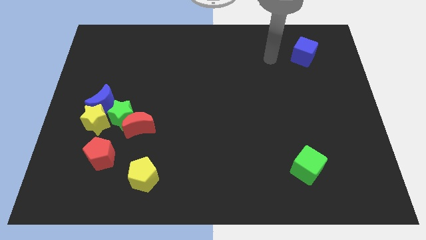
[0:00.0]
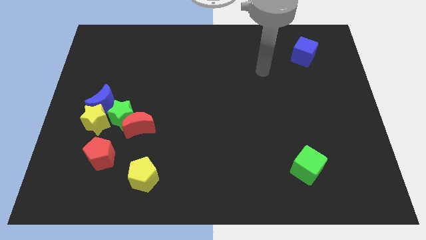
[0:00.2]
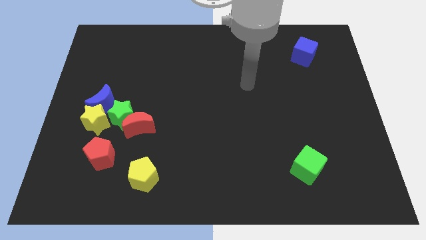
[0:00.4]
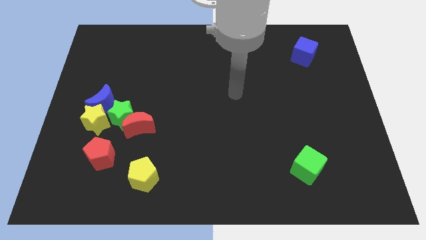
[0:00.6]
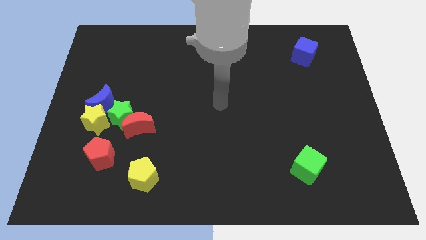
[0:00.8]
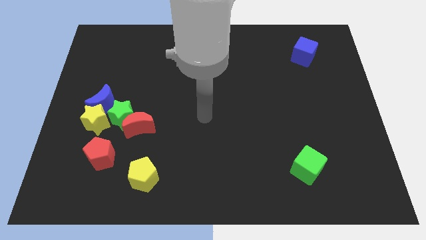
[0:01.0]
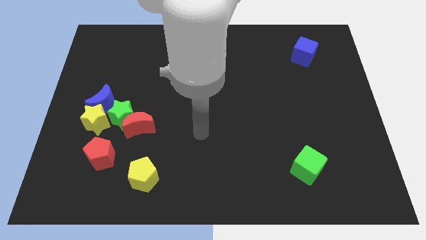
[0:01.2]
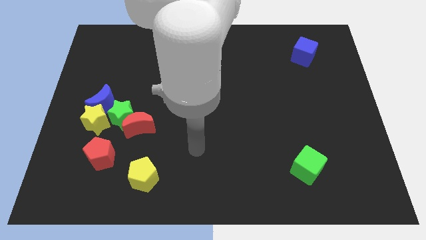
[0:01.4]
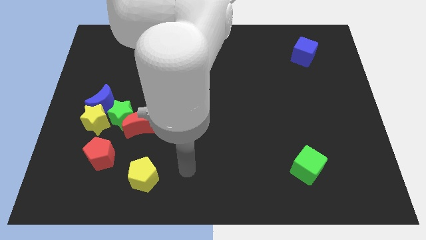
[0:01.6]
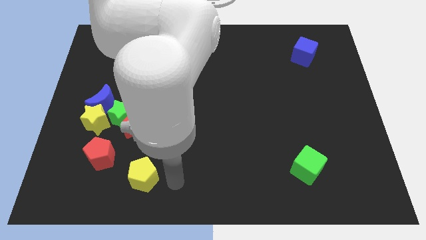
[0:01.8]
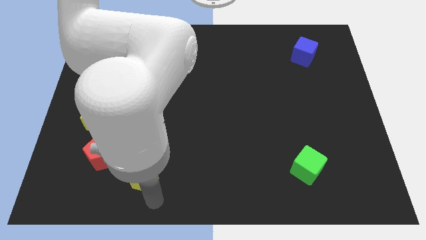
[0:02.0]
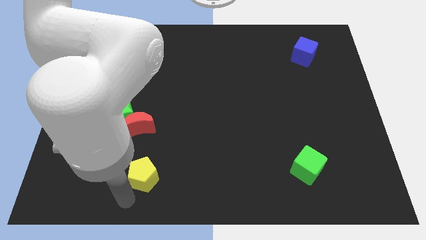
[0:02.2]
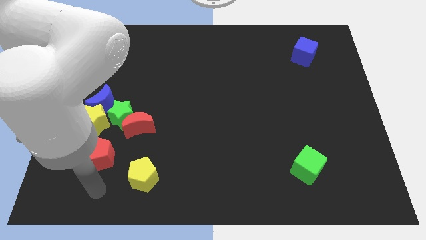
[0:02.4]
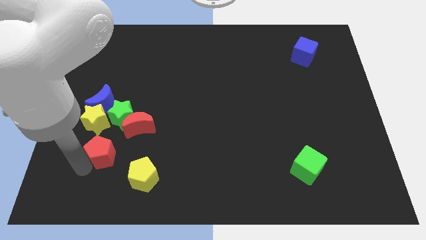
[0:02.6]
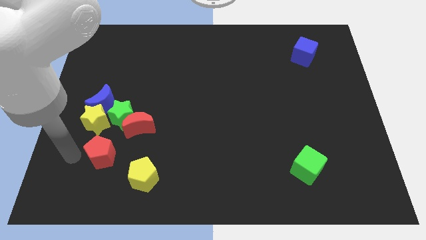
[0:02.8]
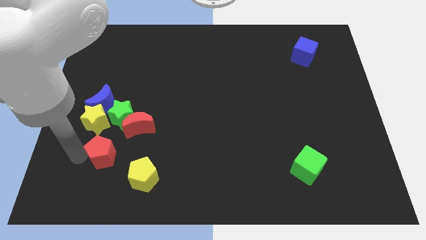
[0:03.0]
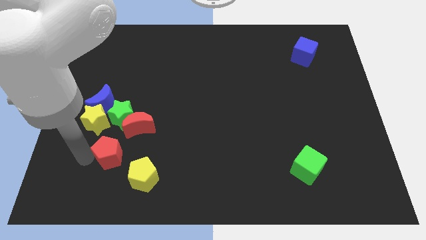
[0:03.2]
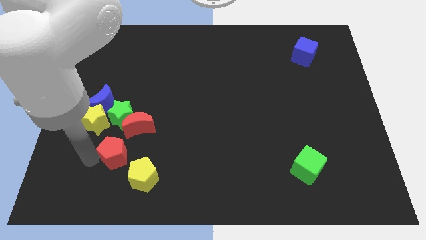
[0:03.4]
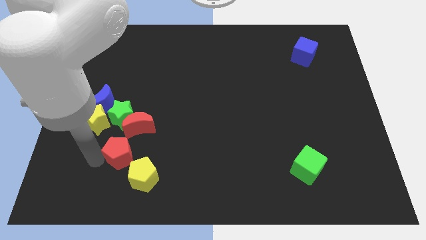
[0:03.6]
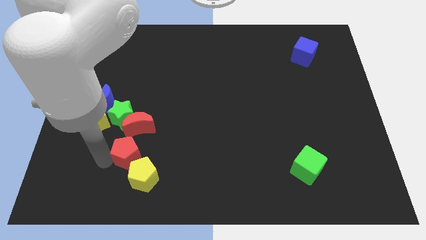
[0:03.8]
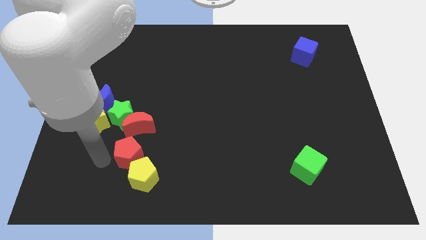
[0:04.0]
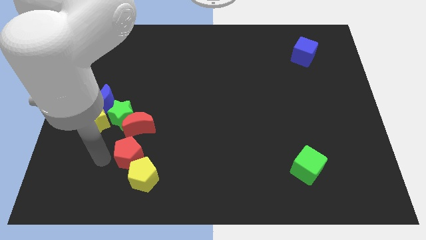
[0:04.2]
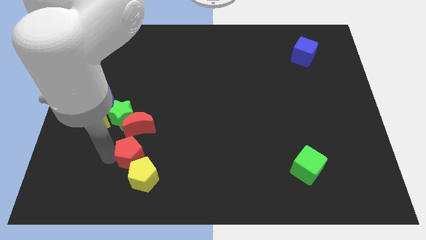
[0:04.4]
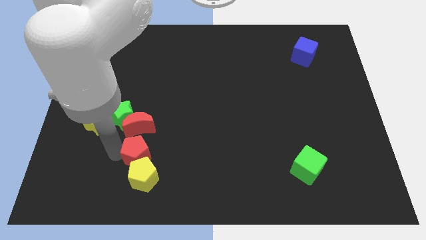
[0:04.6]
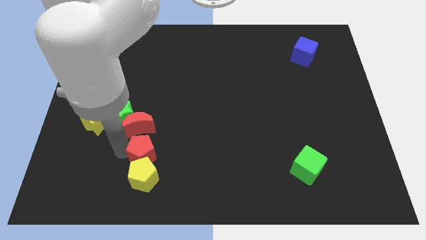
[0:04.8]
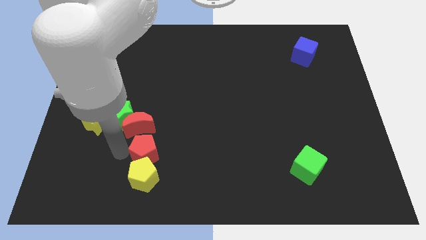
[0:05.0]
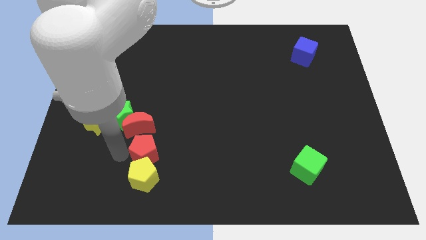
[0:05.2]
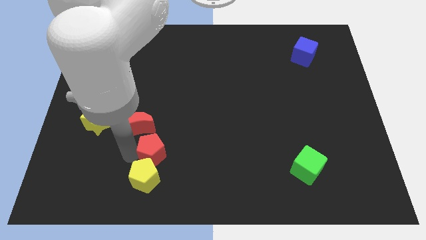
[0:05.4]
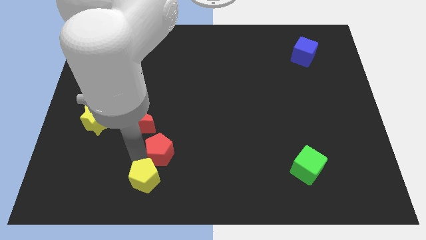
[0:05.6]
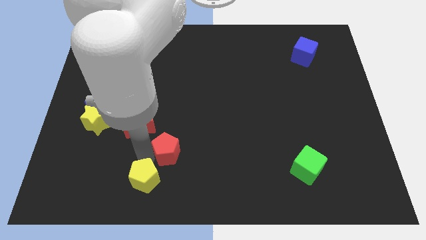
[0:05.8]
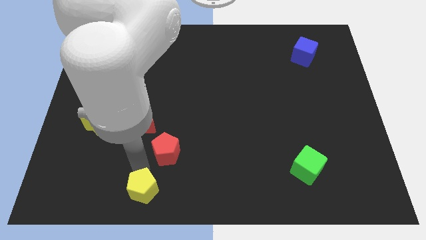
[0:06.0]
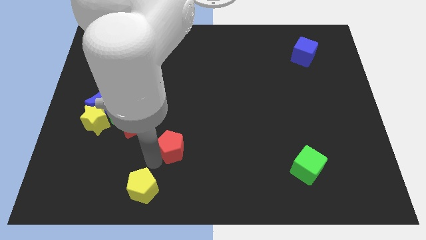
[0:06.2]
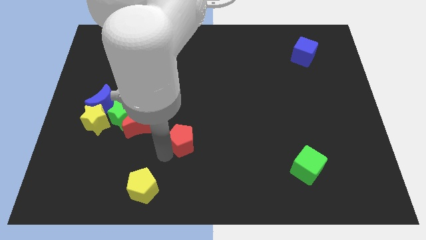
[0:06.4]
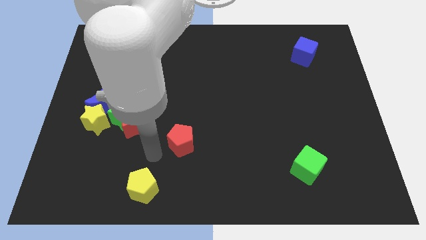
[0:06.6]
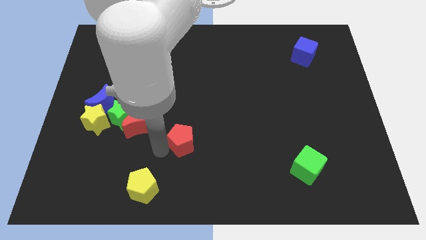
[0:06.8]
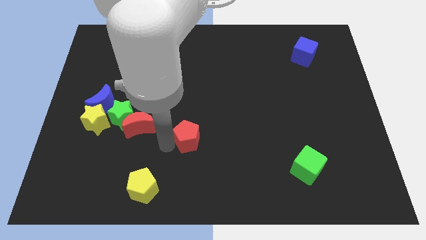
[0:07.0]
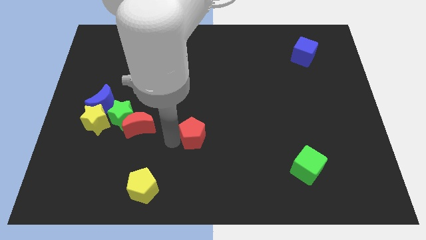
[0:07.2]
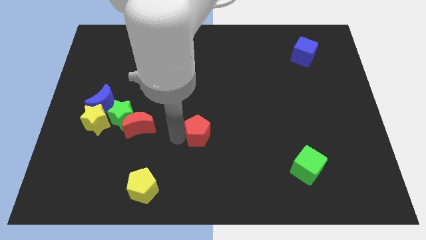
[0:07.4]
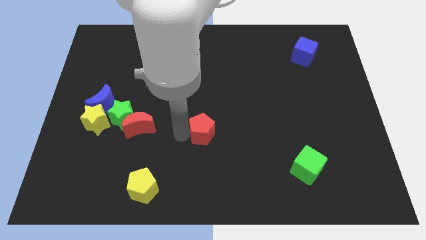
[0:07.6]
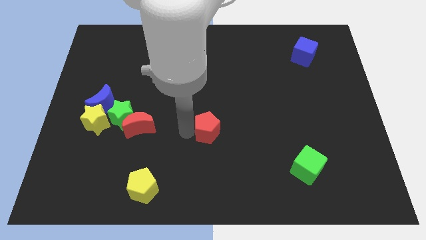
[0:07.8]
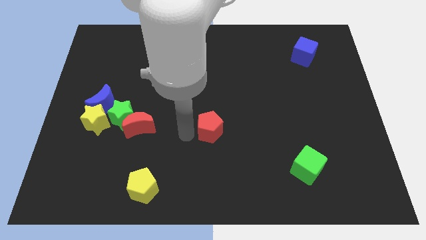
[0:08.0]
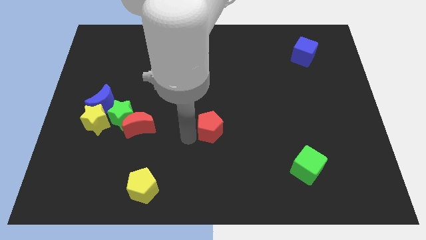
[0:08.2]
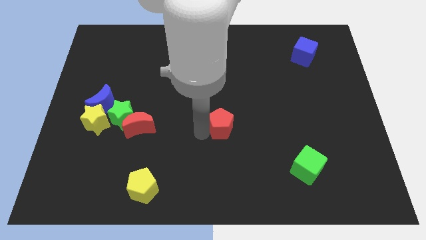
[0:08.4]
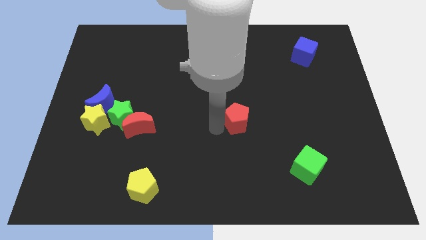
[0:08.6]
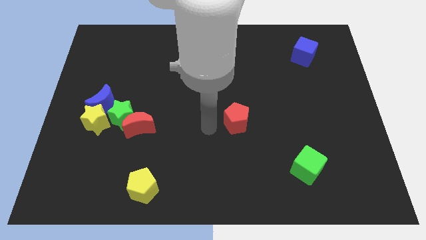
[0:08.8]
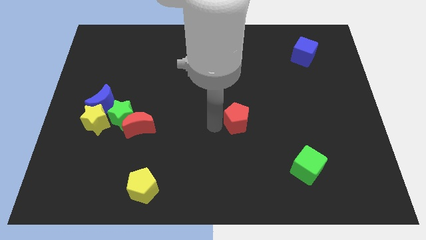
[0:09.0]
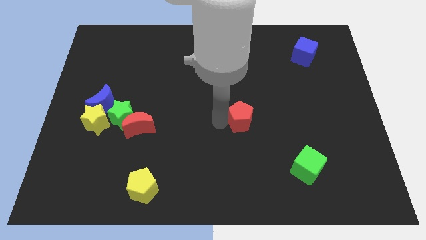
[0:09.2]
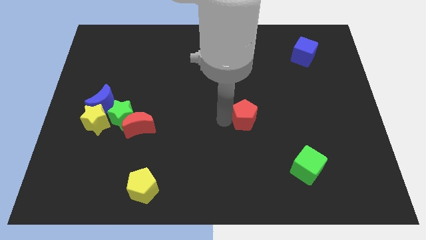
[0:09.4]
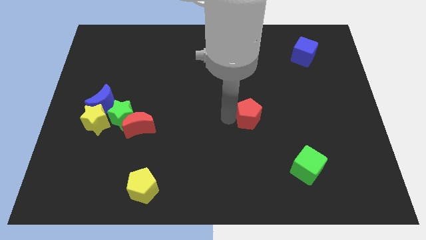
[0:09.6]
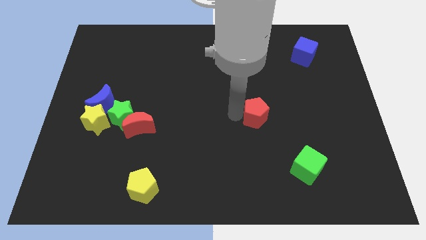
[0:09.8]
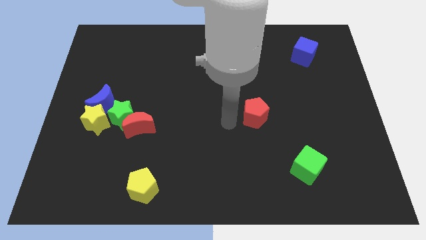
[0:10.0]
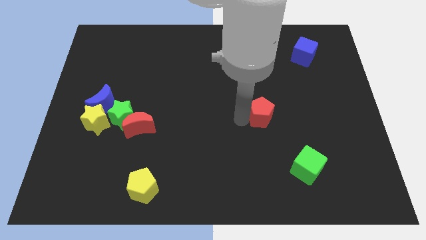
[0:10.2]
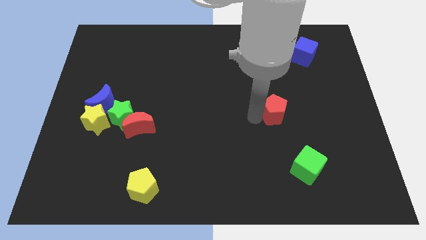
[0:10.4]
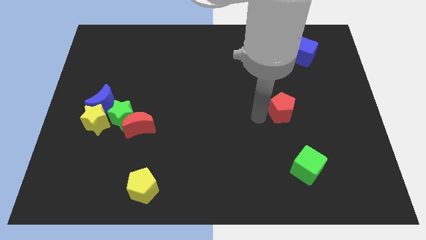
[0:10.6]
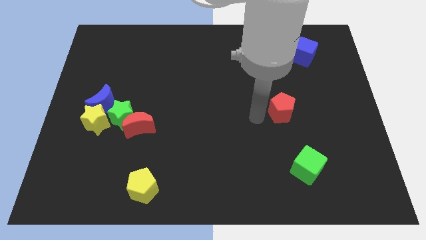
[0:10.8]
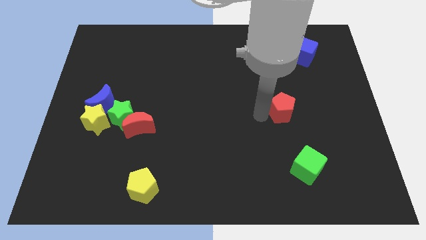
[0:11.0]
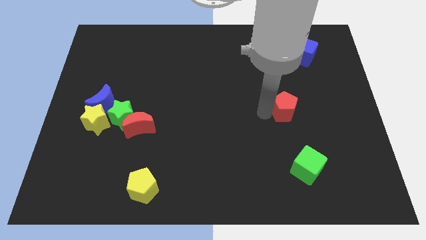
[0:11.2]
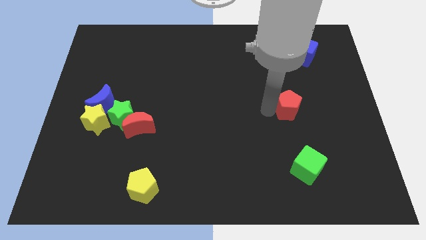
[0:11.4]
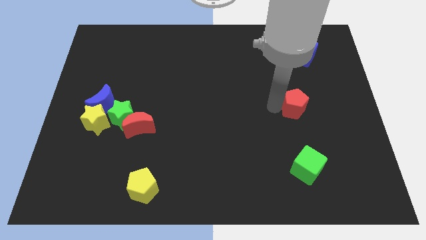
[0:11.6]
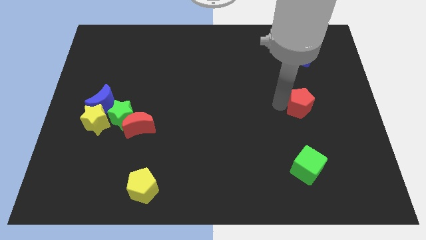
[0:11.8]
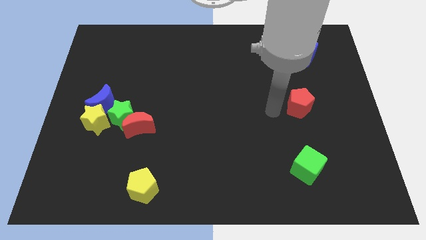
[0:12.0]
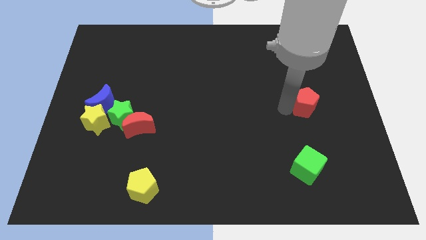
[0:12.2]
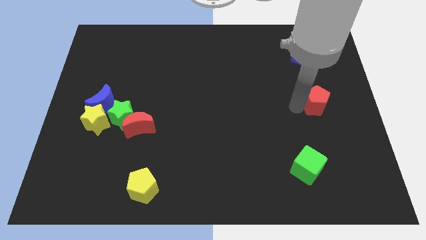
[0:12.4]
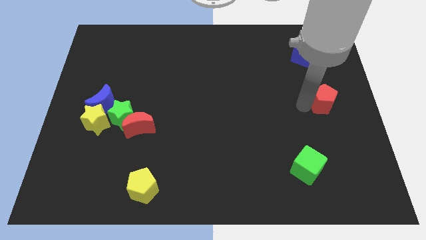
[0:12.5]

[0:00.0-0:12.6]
slide the red pentagon to the right side

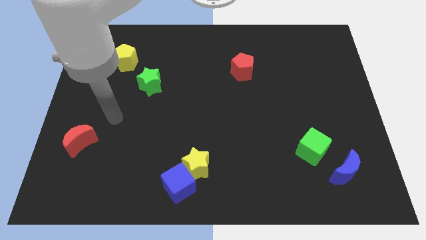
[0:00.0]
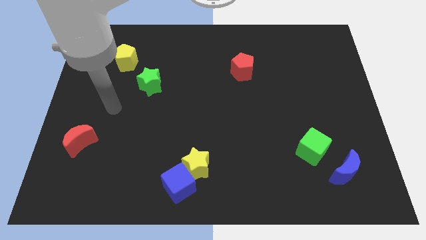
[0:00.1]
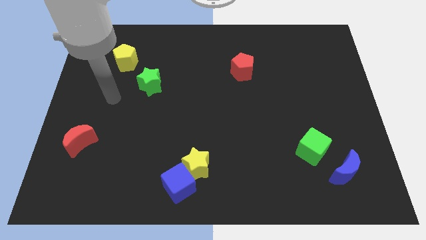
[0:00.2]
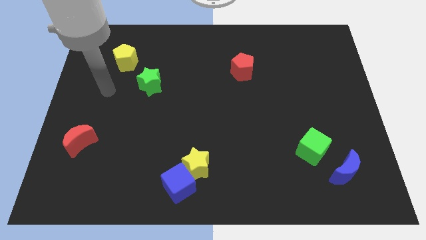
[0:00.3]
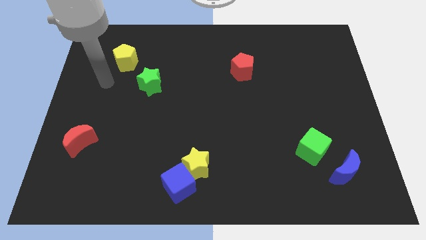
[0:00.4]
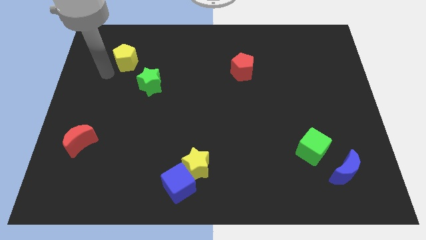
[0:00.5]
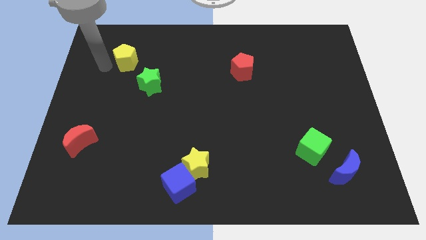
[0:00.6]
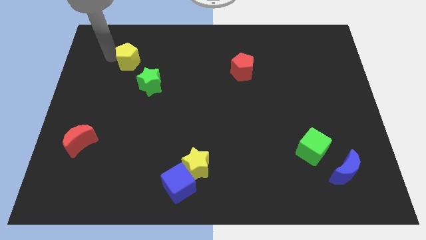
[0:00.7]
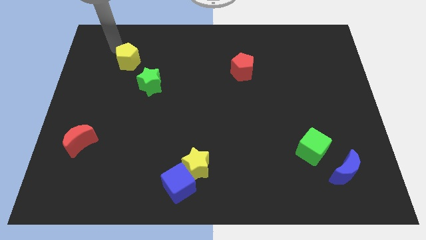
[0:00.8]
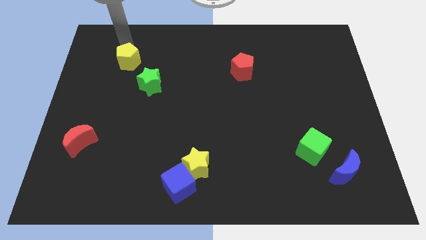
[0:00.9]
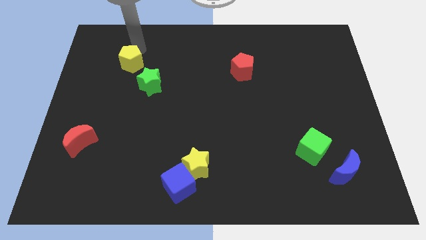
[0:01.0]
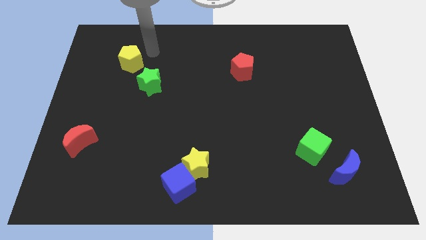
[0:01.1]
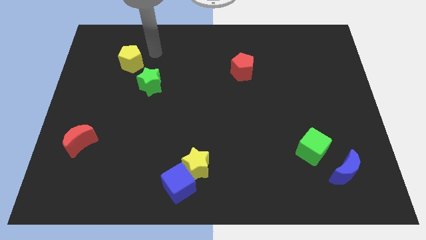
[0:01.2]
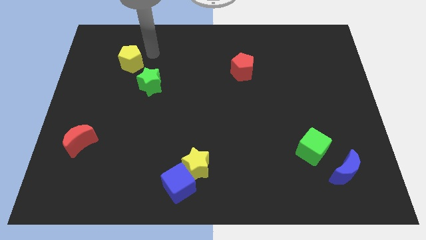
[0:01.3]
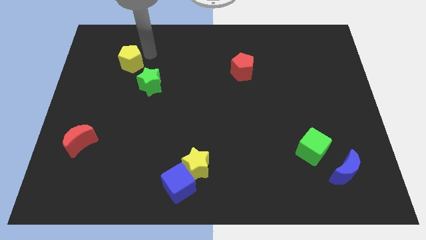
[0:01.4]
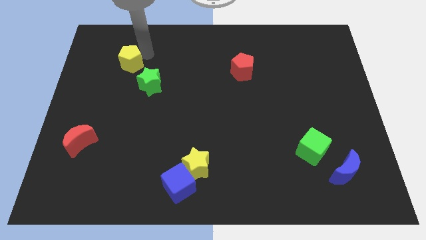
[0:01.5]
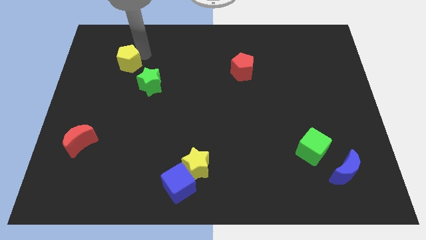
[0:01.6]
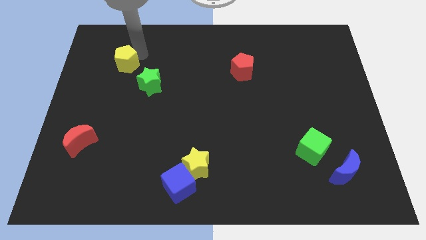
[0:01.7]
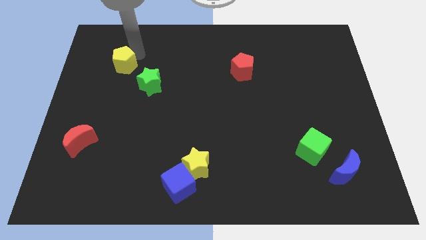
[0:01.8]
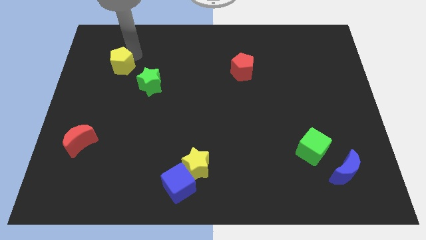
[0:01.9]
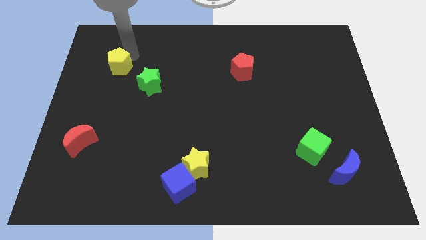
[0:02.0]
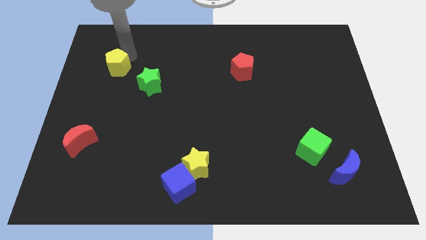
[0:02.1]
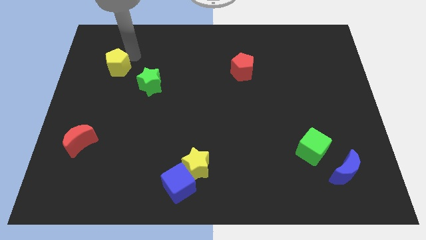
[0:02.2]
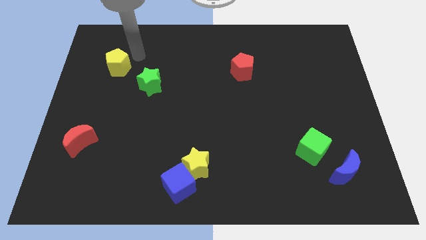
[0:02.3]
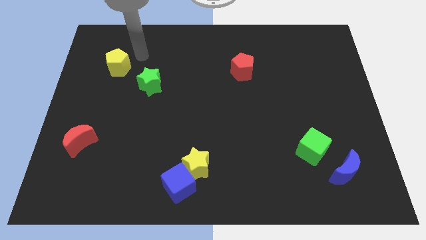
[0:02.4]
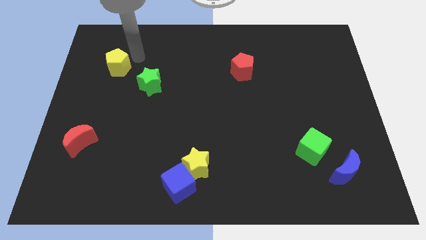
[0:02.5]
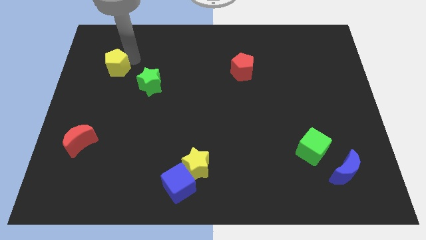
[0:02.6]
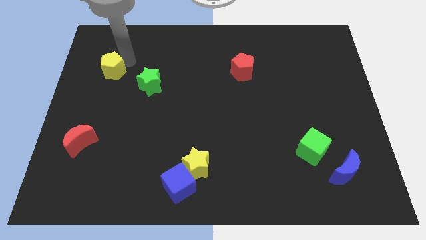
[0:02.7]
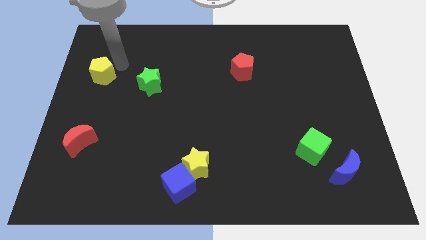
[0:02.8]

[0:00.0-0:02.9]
put the yellow pentagon to the left side
